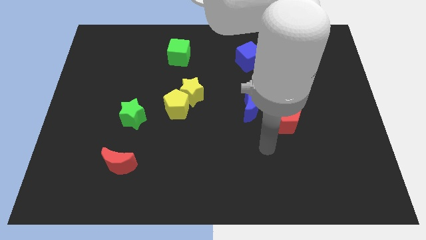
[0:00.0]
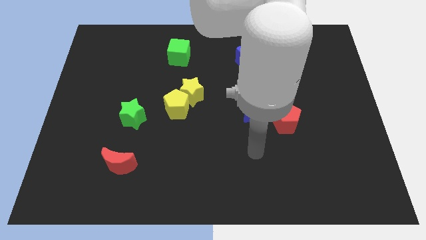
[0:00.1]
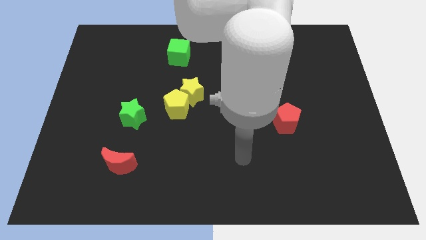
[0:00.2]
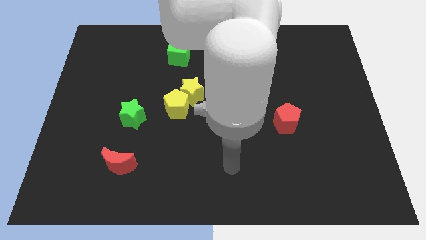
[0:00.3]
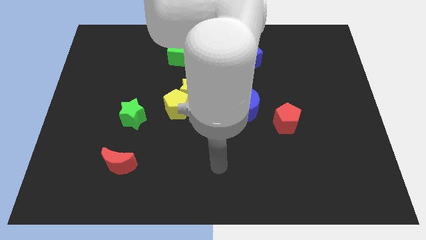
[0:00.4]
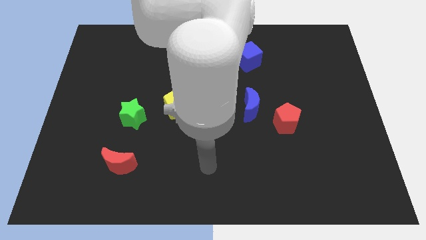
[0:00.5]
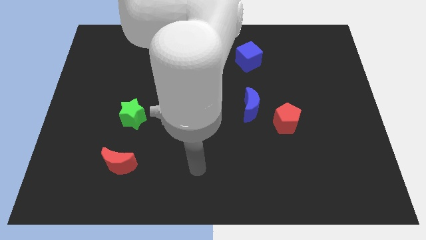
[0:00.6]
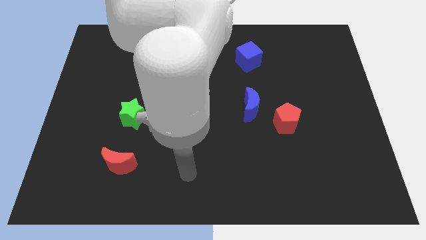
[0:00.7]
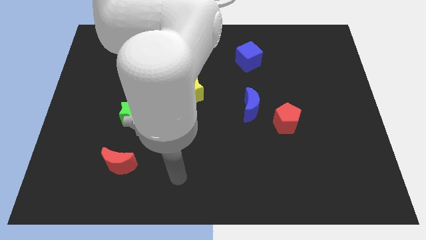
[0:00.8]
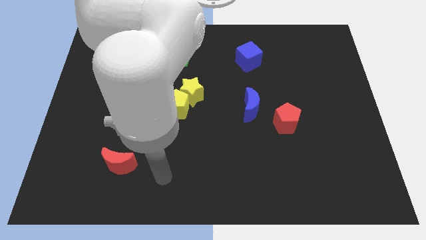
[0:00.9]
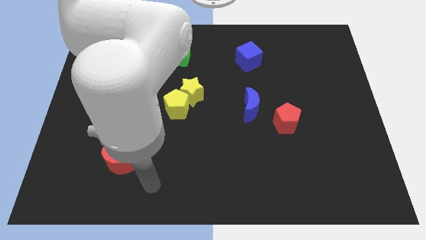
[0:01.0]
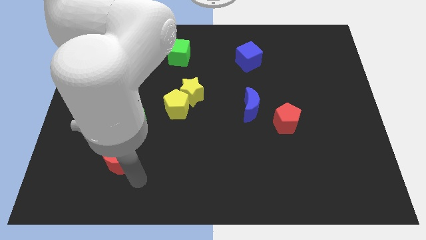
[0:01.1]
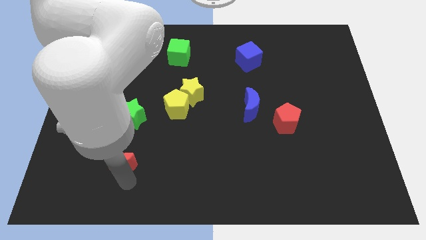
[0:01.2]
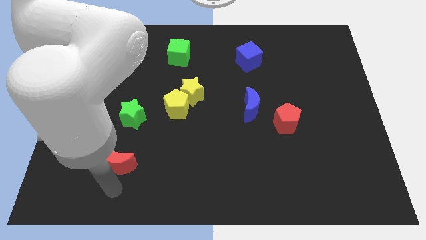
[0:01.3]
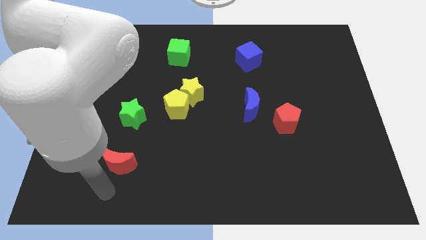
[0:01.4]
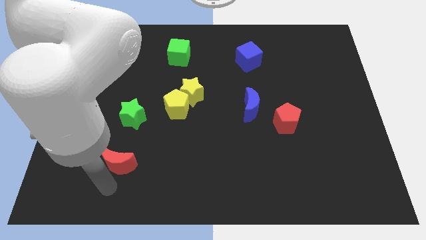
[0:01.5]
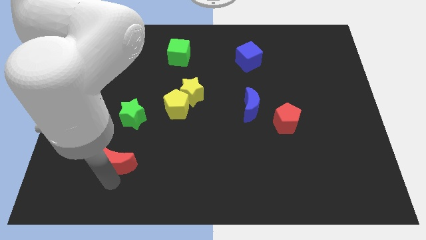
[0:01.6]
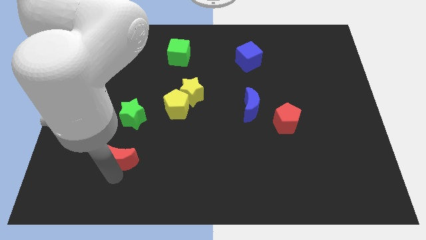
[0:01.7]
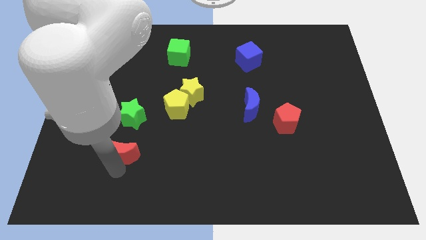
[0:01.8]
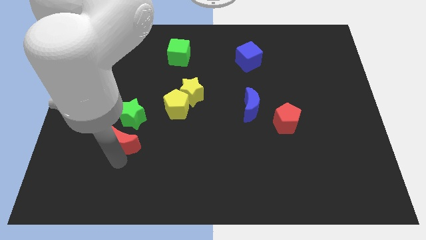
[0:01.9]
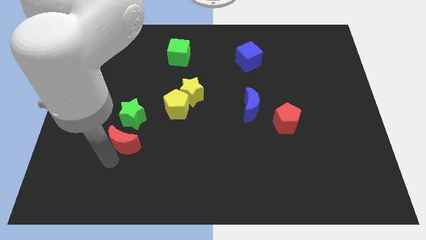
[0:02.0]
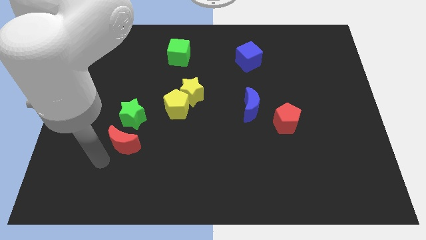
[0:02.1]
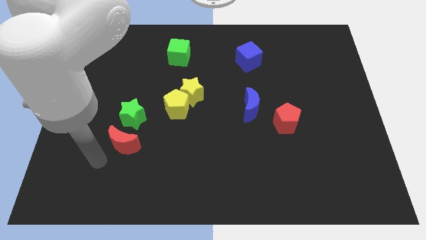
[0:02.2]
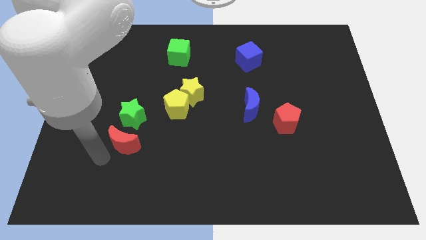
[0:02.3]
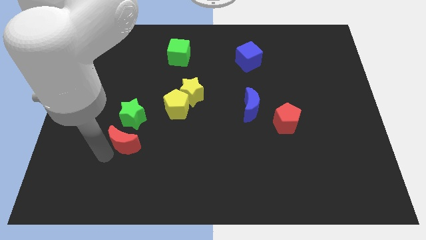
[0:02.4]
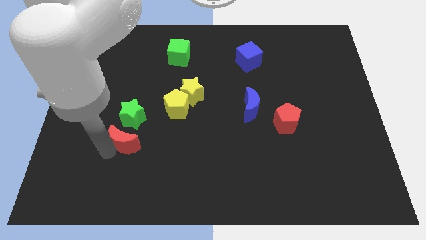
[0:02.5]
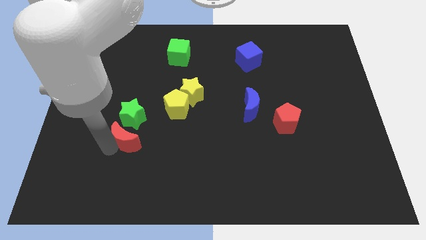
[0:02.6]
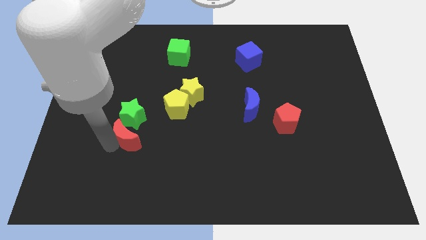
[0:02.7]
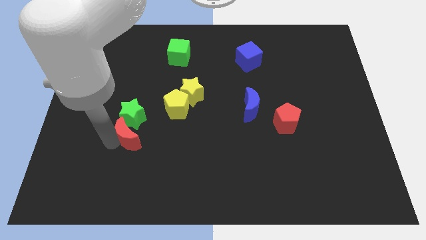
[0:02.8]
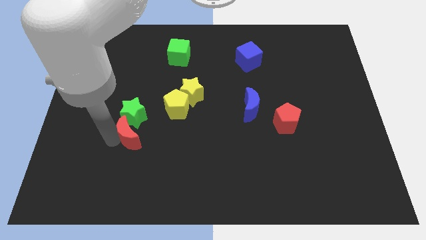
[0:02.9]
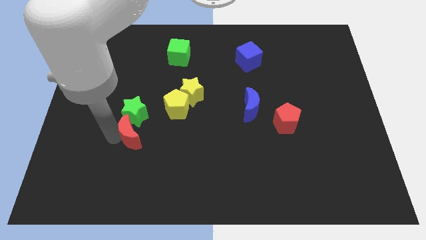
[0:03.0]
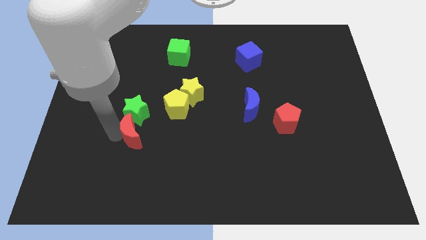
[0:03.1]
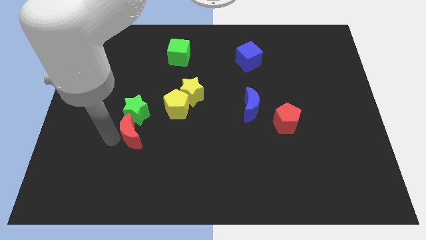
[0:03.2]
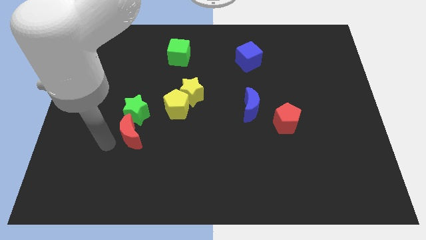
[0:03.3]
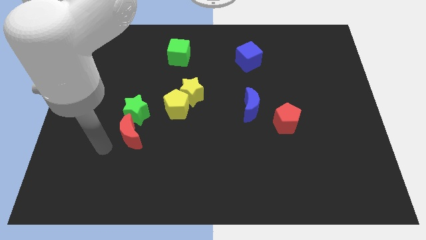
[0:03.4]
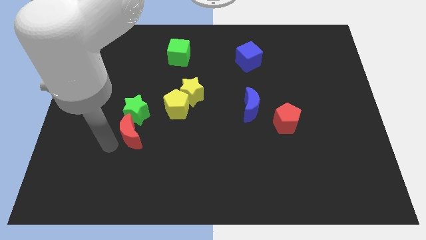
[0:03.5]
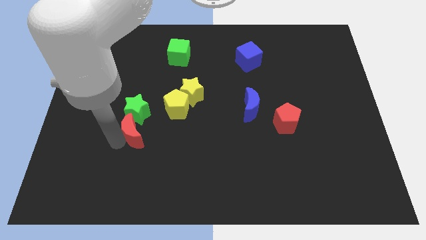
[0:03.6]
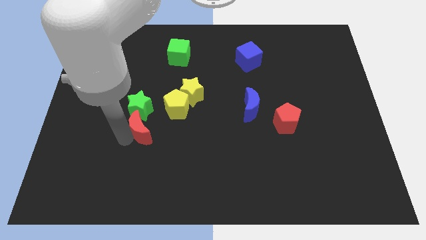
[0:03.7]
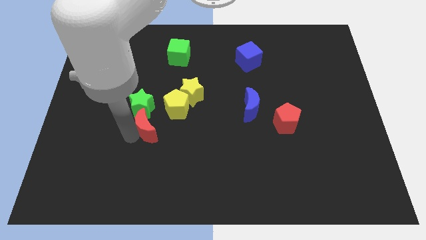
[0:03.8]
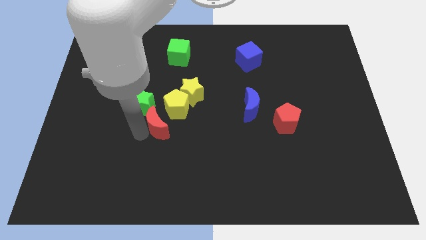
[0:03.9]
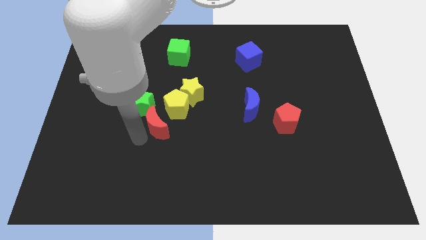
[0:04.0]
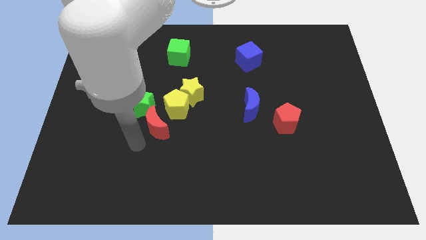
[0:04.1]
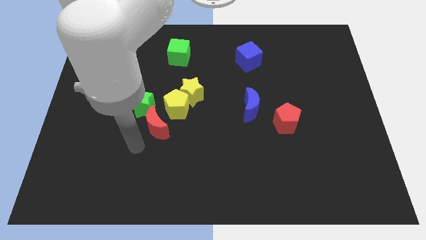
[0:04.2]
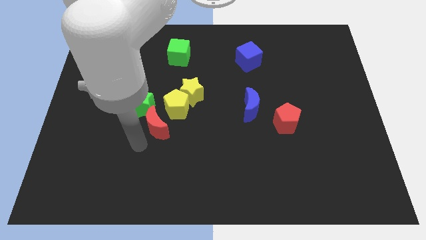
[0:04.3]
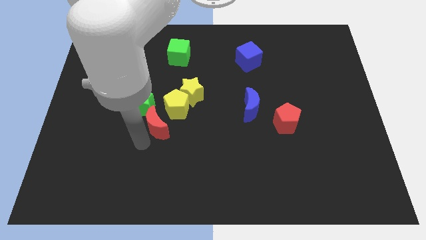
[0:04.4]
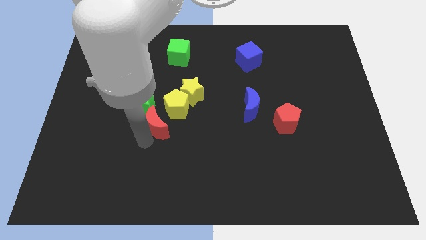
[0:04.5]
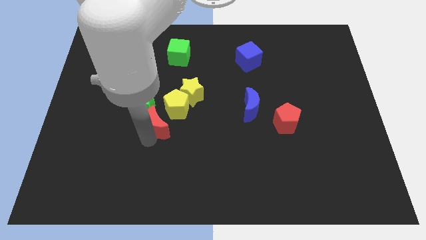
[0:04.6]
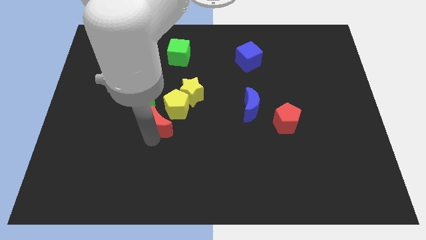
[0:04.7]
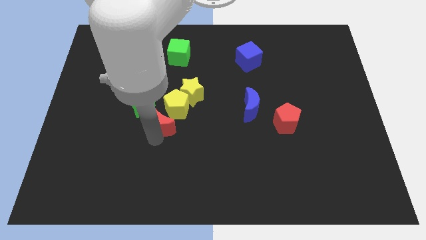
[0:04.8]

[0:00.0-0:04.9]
slide the red moon next to the yellow pentagon

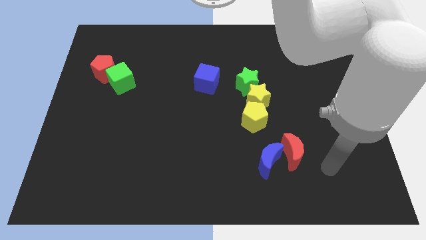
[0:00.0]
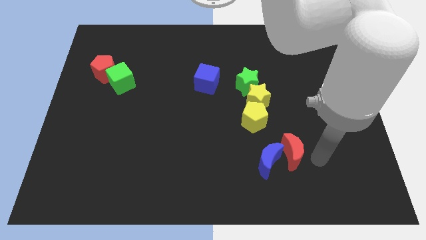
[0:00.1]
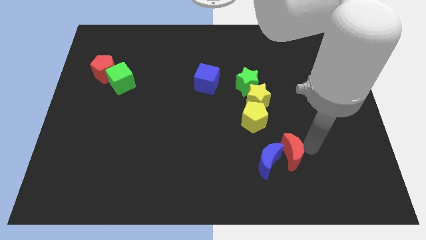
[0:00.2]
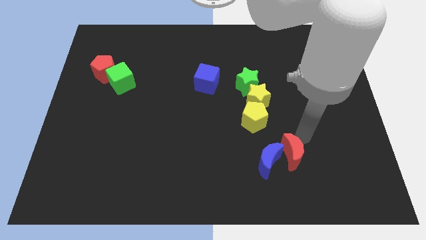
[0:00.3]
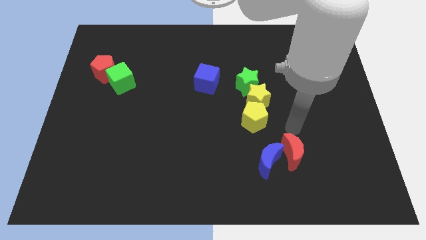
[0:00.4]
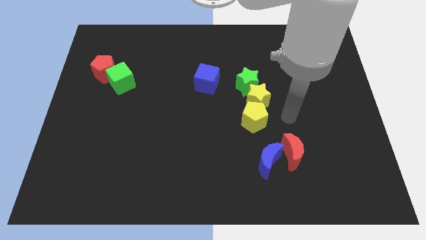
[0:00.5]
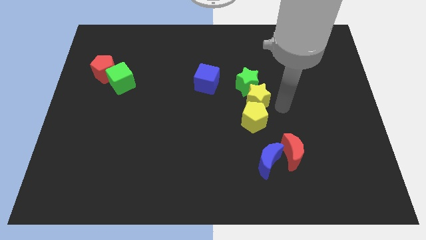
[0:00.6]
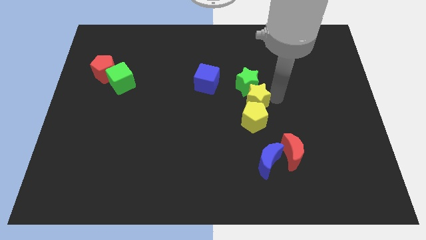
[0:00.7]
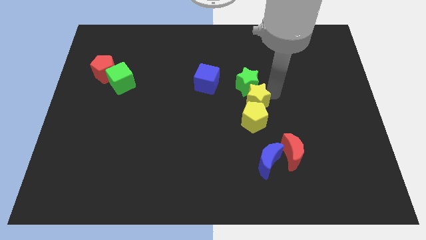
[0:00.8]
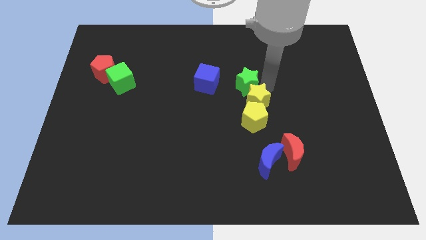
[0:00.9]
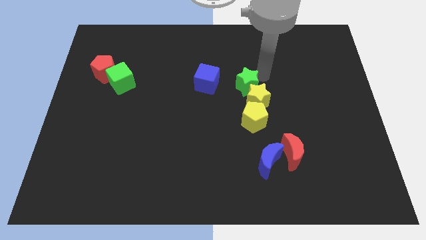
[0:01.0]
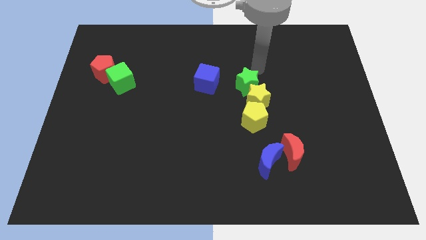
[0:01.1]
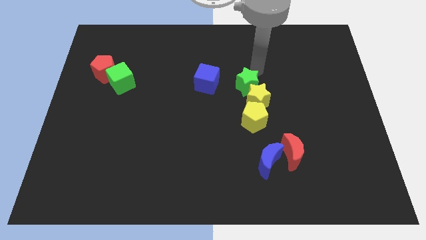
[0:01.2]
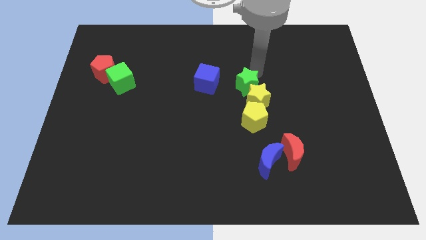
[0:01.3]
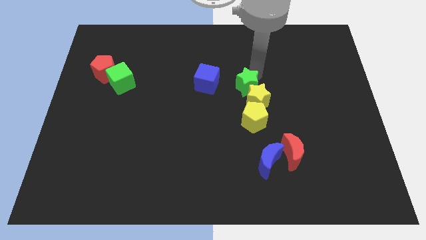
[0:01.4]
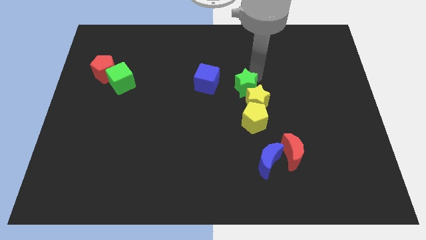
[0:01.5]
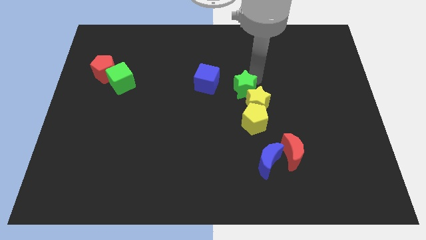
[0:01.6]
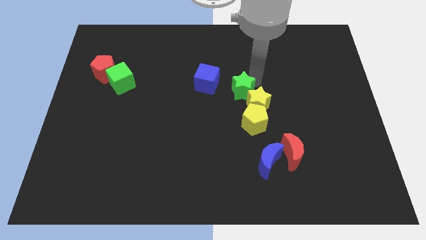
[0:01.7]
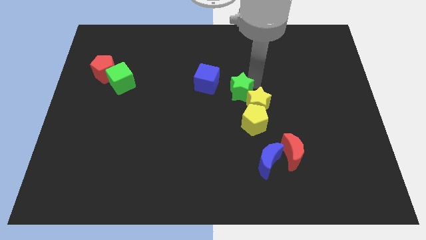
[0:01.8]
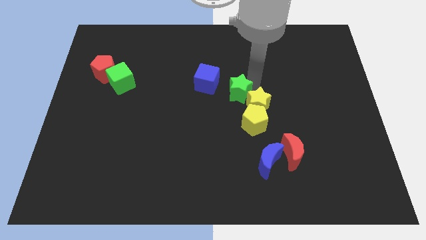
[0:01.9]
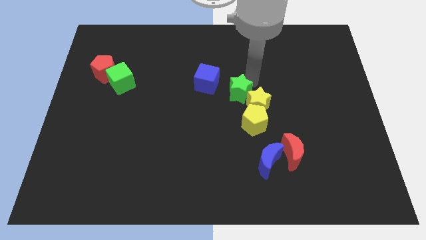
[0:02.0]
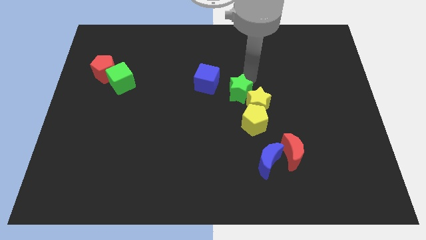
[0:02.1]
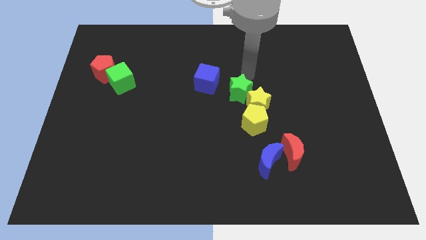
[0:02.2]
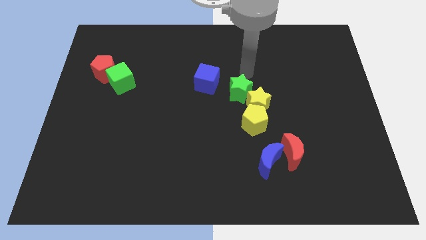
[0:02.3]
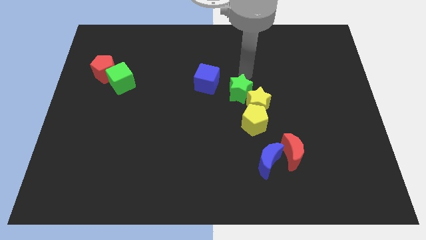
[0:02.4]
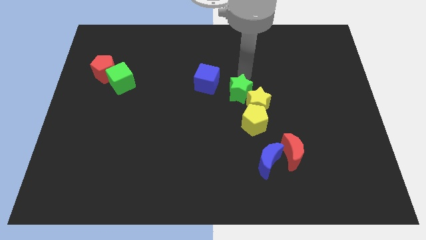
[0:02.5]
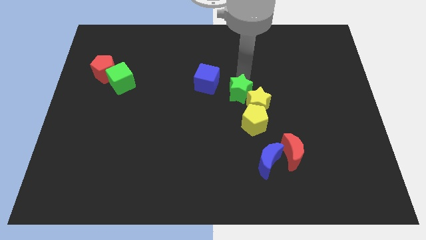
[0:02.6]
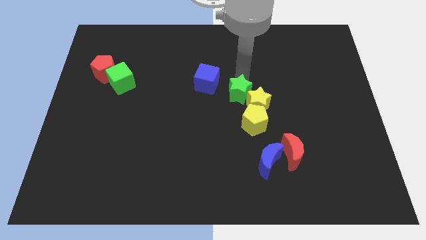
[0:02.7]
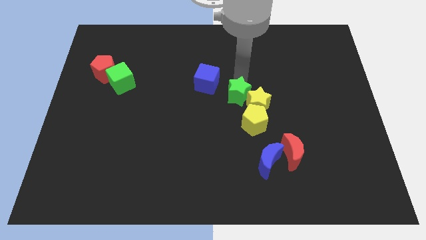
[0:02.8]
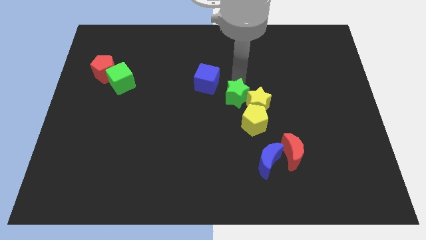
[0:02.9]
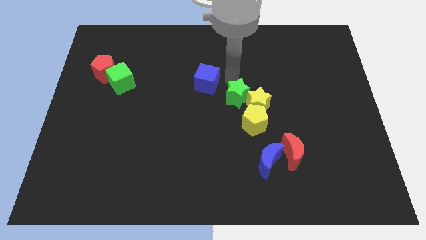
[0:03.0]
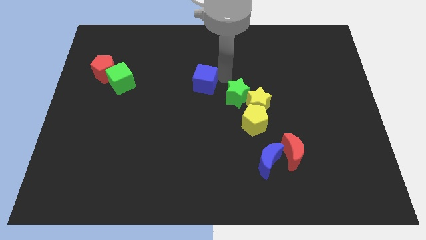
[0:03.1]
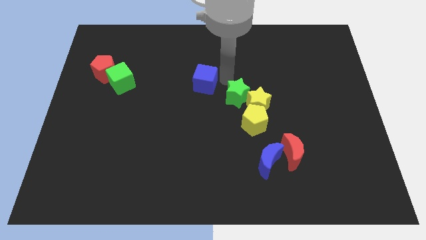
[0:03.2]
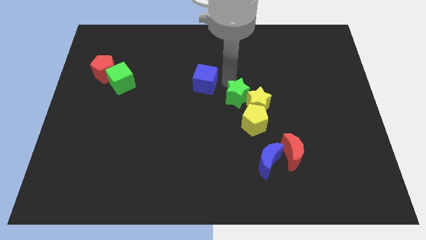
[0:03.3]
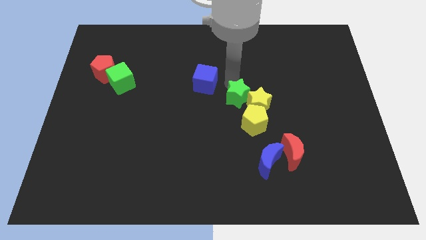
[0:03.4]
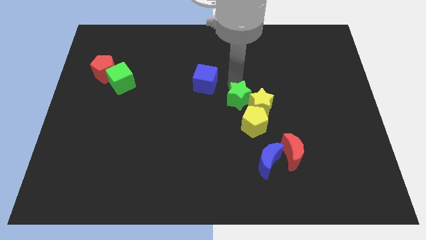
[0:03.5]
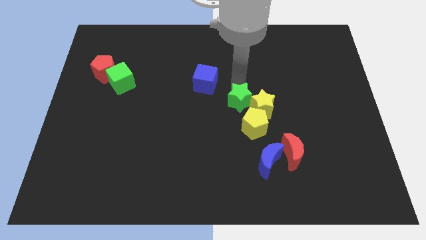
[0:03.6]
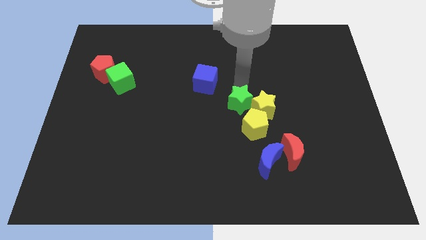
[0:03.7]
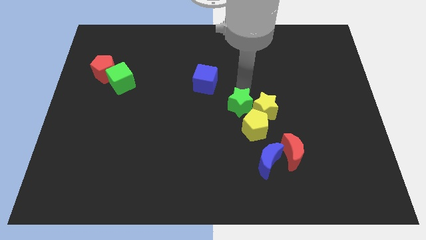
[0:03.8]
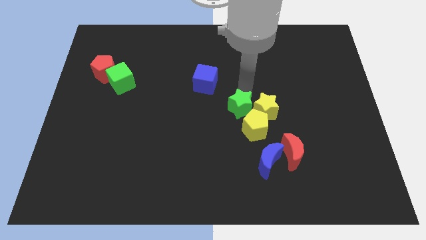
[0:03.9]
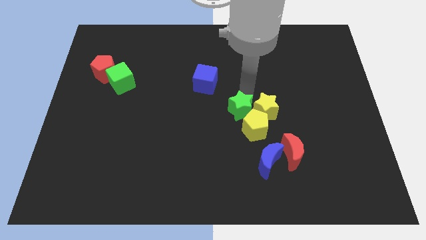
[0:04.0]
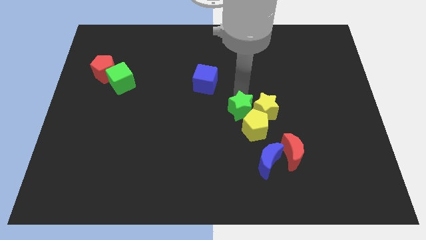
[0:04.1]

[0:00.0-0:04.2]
move the green star close to the yellow pentagon
